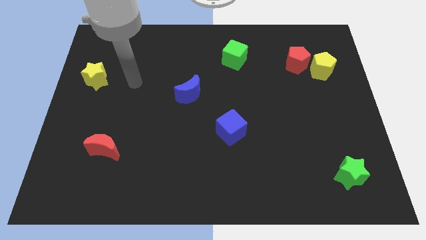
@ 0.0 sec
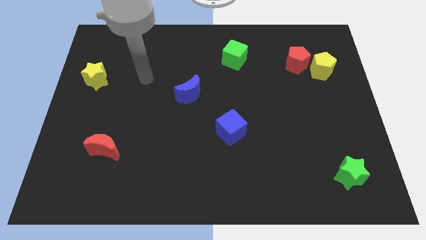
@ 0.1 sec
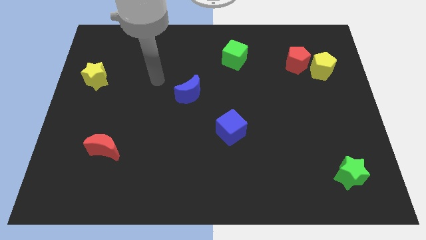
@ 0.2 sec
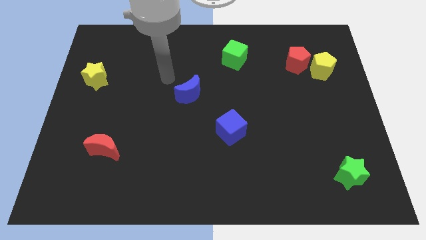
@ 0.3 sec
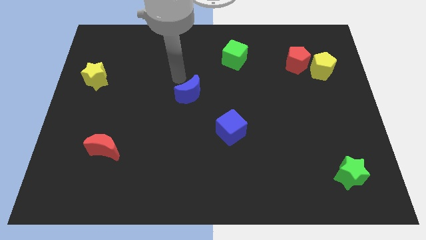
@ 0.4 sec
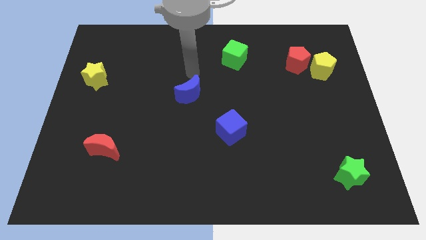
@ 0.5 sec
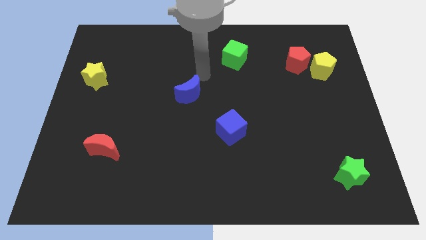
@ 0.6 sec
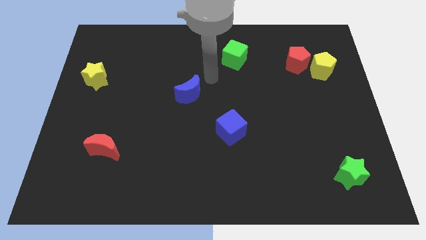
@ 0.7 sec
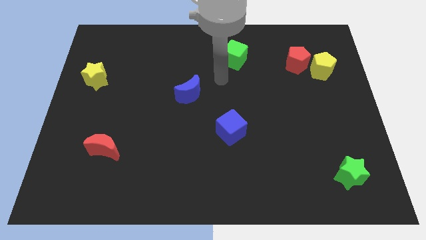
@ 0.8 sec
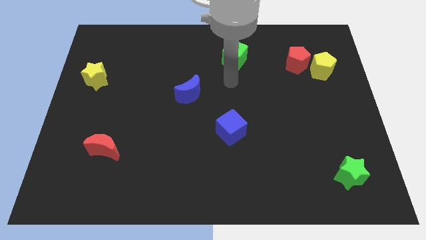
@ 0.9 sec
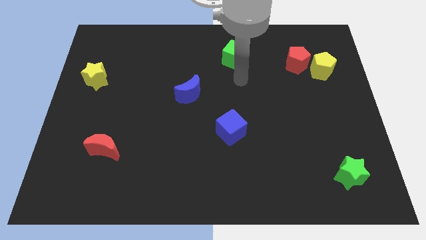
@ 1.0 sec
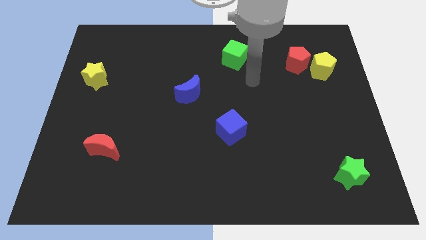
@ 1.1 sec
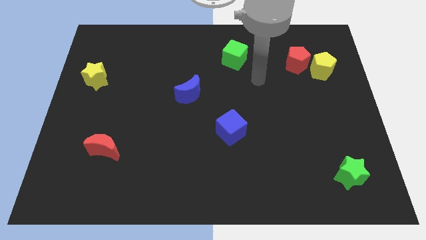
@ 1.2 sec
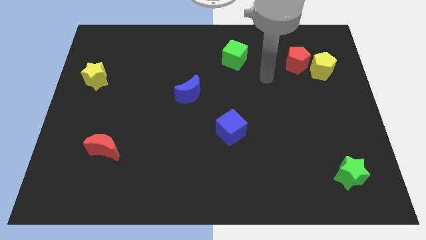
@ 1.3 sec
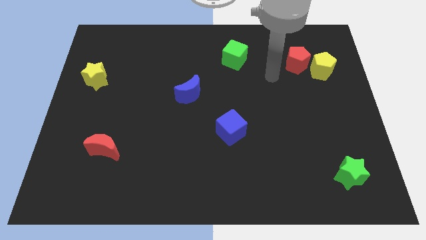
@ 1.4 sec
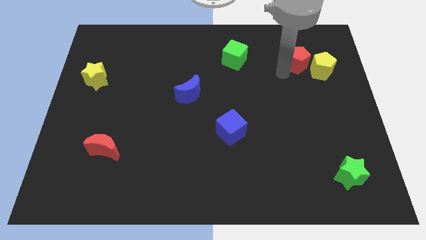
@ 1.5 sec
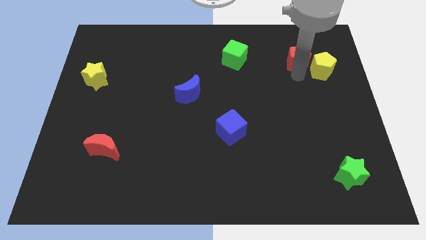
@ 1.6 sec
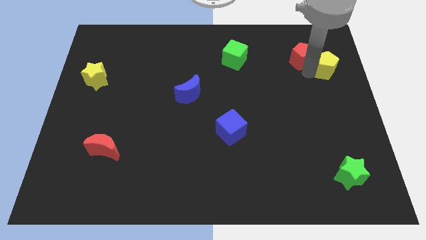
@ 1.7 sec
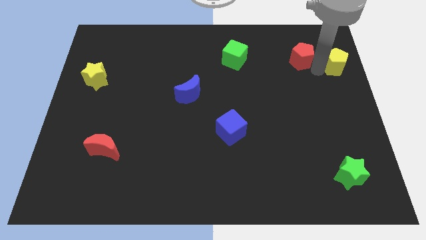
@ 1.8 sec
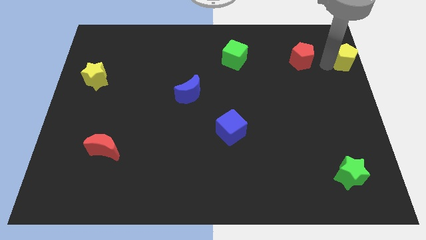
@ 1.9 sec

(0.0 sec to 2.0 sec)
pull the red pentagon apart from the yellow pentagon

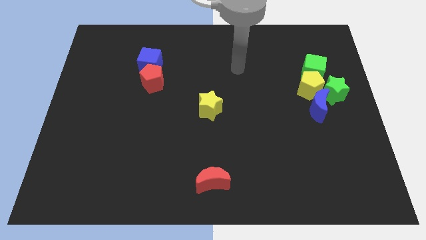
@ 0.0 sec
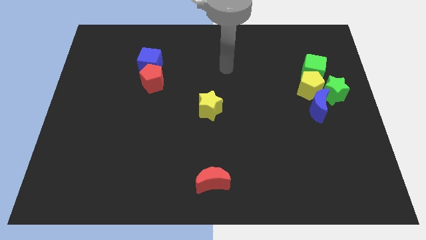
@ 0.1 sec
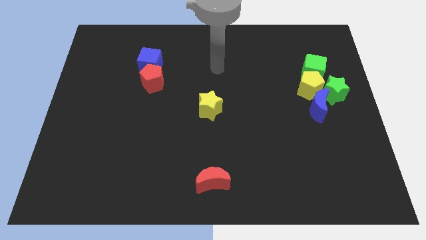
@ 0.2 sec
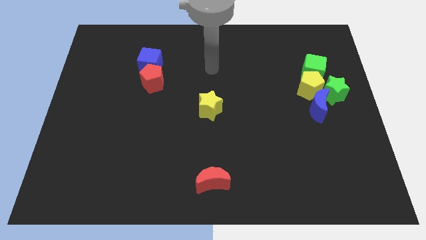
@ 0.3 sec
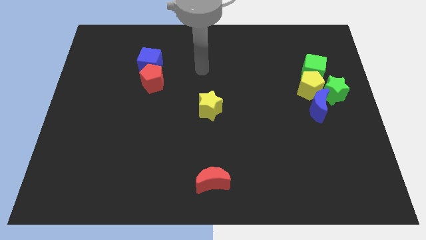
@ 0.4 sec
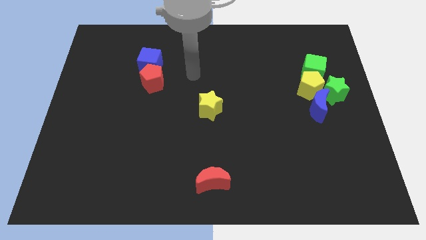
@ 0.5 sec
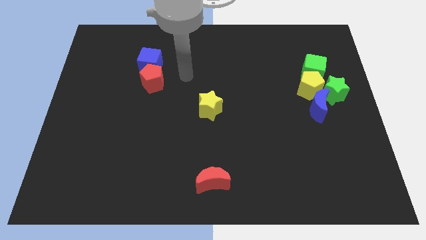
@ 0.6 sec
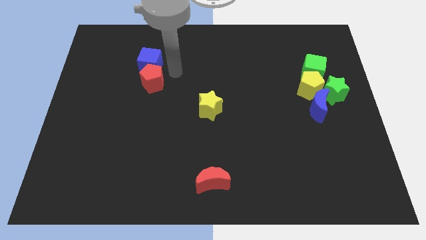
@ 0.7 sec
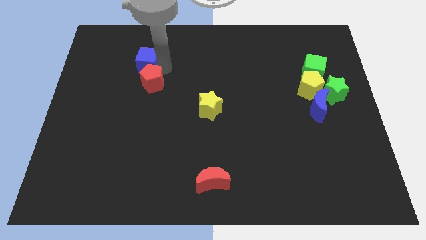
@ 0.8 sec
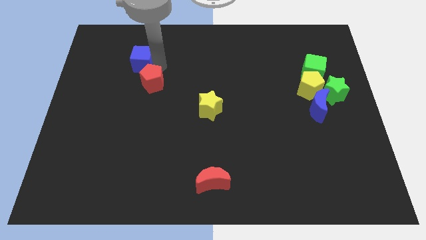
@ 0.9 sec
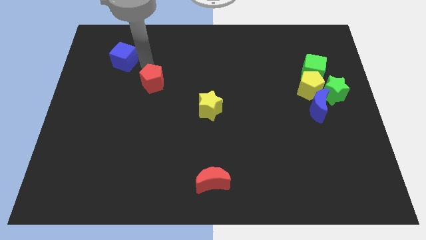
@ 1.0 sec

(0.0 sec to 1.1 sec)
pull the red pentagon apart from the blue cube

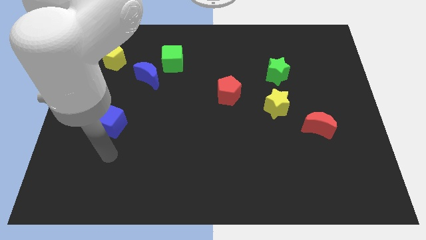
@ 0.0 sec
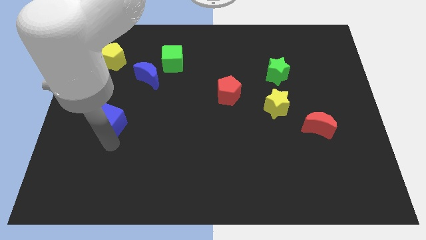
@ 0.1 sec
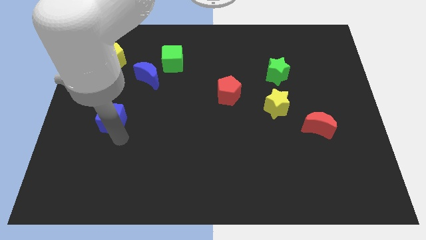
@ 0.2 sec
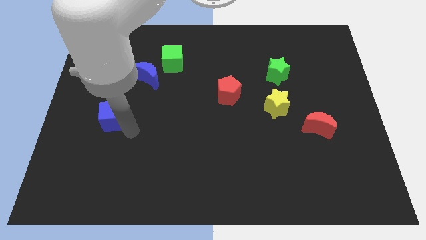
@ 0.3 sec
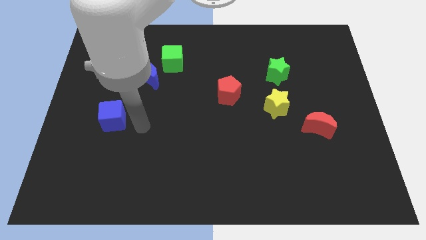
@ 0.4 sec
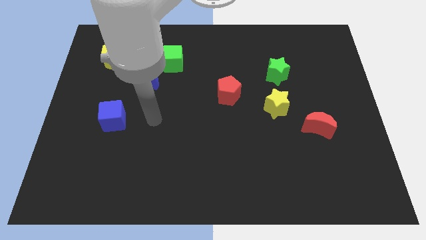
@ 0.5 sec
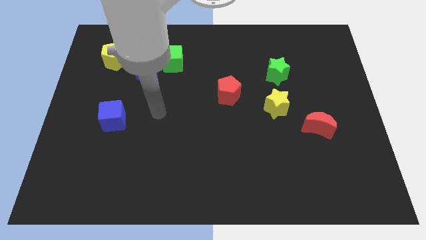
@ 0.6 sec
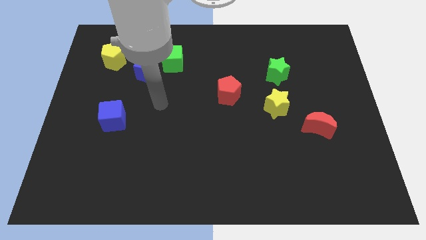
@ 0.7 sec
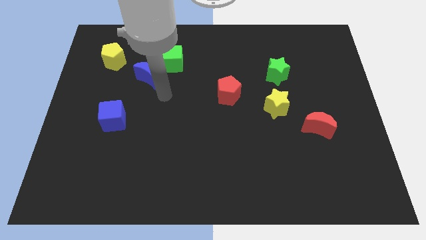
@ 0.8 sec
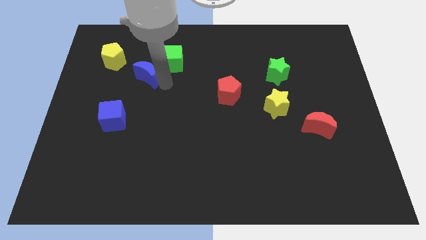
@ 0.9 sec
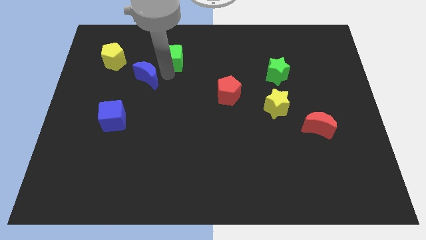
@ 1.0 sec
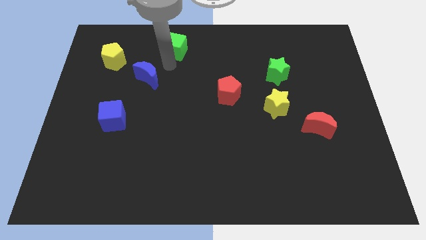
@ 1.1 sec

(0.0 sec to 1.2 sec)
pull the blue moon apart from the green cube

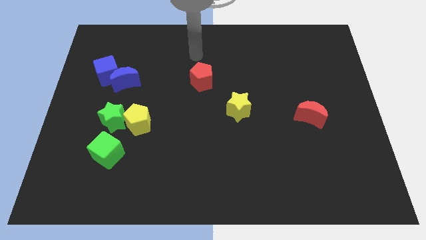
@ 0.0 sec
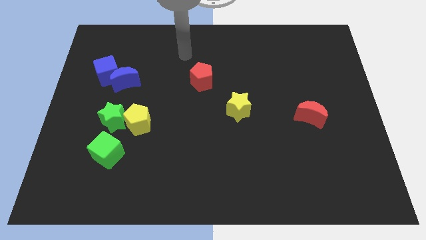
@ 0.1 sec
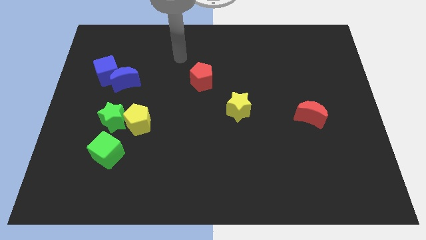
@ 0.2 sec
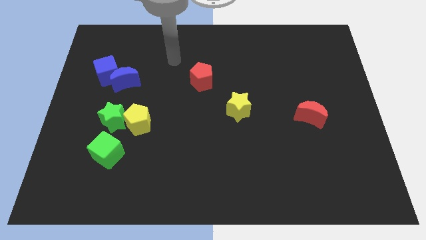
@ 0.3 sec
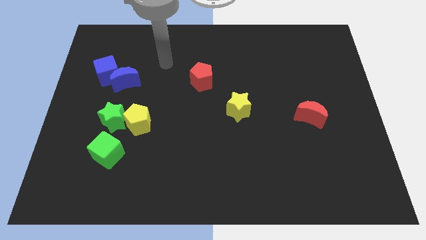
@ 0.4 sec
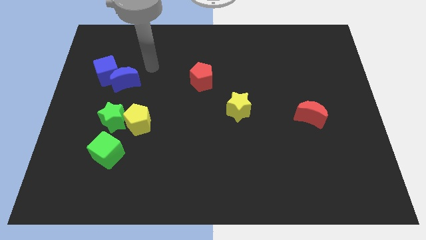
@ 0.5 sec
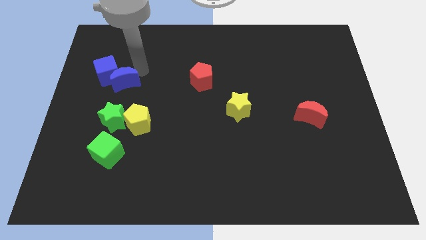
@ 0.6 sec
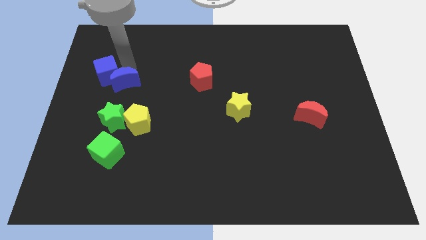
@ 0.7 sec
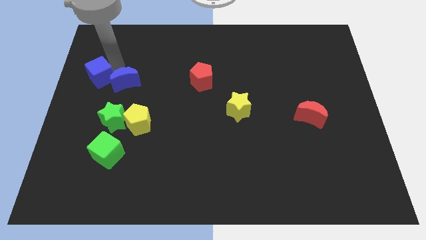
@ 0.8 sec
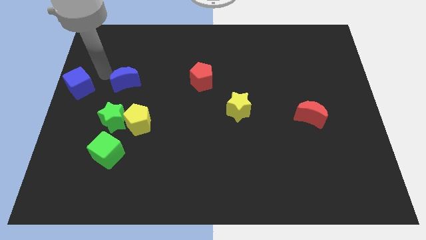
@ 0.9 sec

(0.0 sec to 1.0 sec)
move the blue moon away from the blue cube

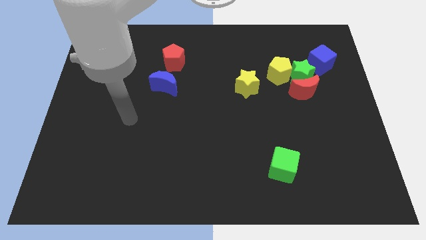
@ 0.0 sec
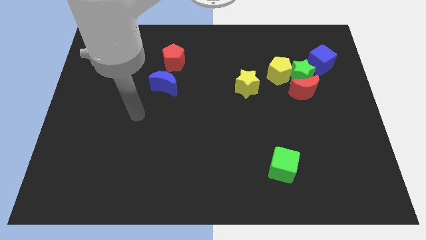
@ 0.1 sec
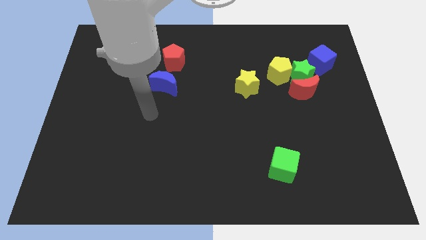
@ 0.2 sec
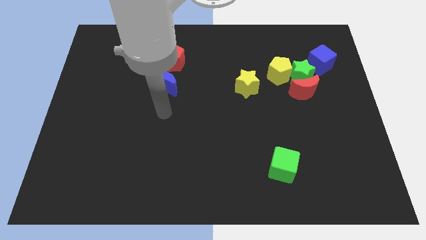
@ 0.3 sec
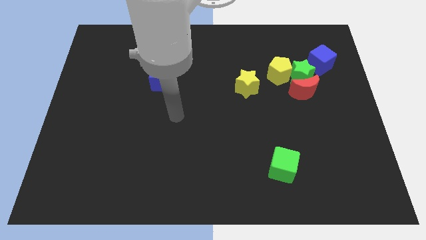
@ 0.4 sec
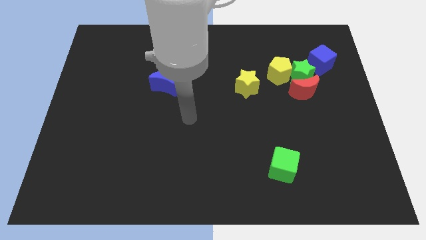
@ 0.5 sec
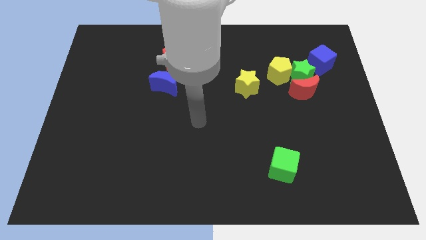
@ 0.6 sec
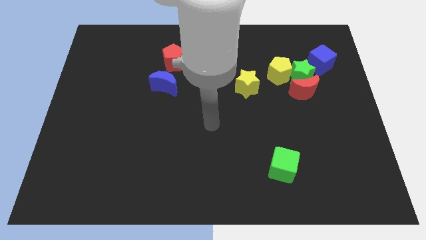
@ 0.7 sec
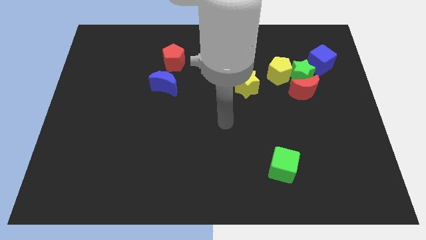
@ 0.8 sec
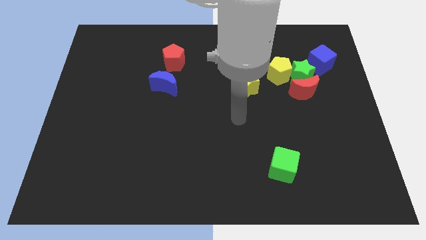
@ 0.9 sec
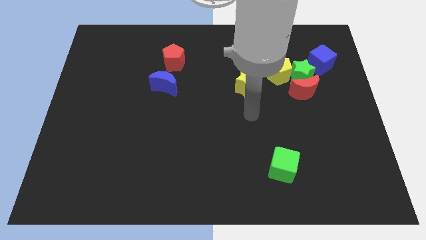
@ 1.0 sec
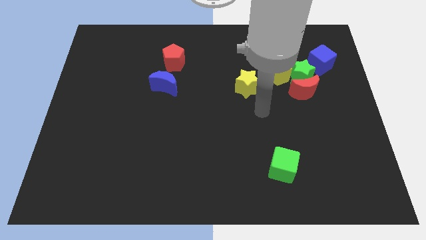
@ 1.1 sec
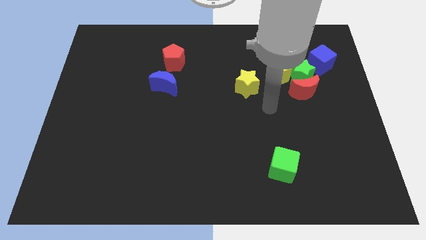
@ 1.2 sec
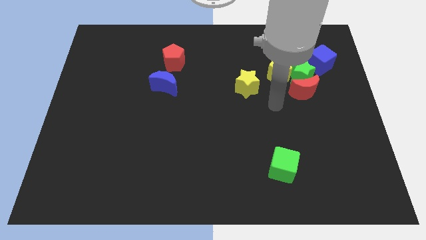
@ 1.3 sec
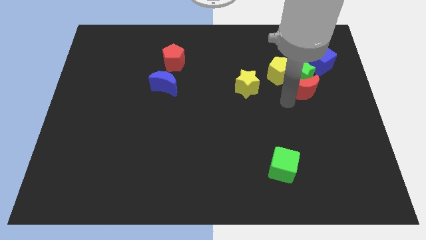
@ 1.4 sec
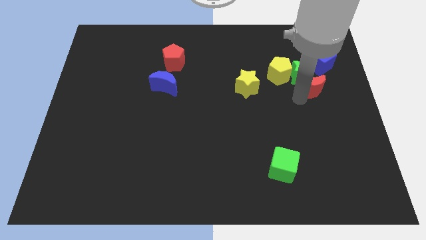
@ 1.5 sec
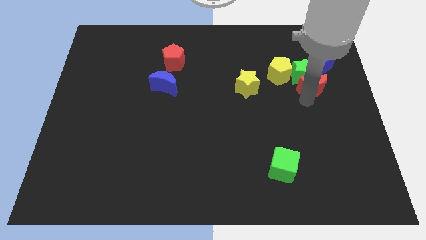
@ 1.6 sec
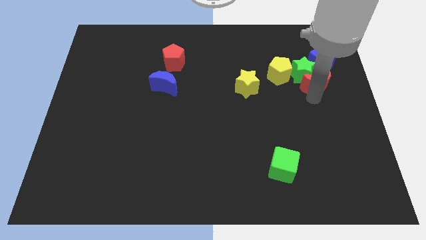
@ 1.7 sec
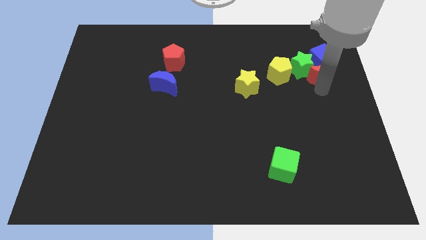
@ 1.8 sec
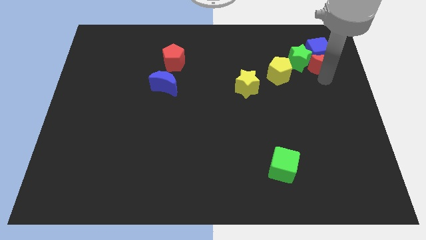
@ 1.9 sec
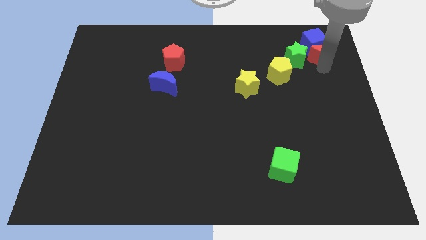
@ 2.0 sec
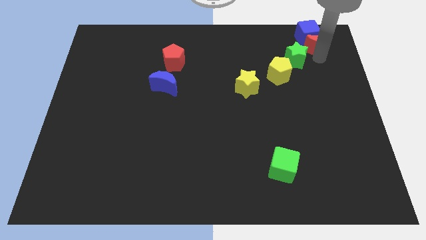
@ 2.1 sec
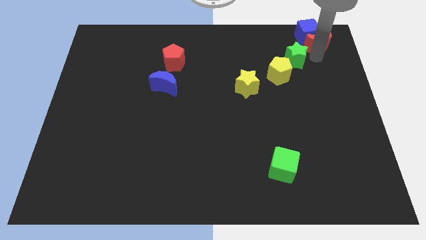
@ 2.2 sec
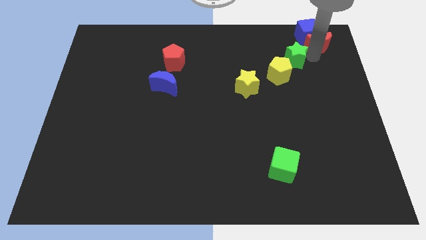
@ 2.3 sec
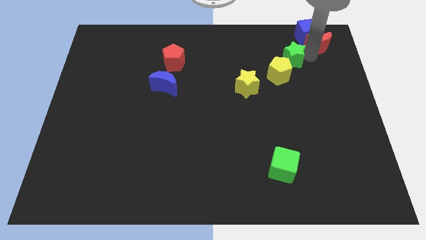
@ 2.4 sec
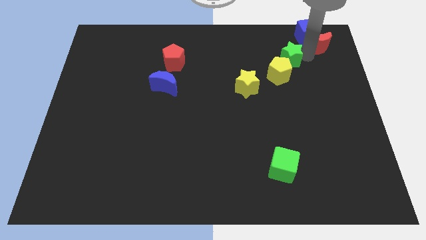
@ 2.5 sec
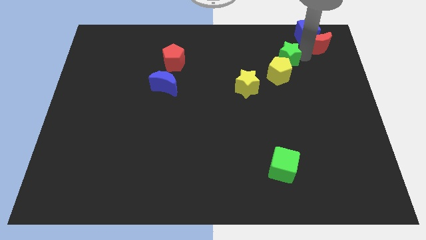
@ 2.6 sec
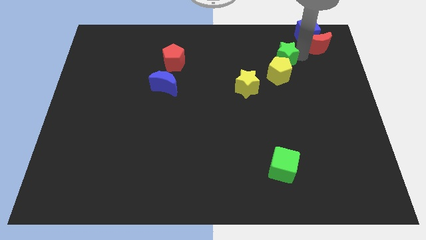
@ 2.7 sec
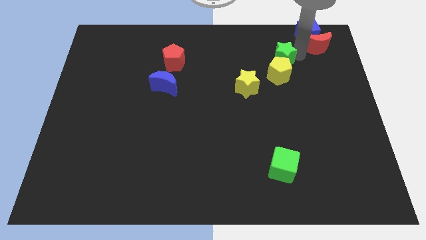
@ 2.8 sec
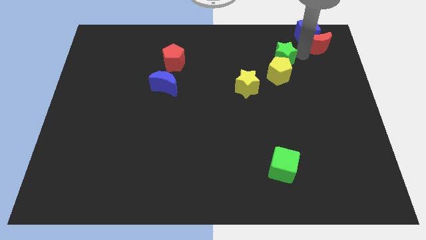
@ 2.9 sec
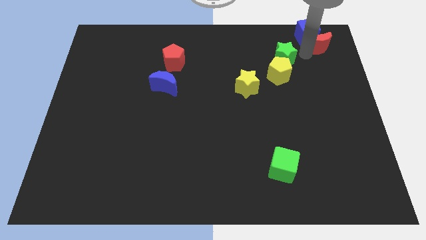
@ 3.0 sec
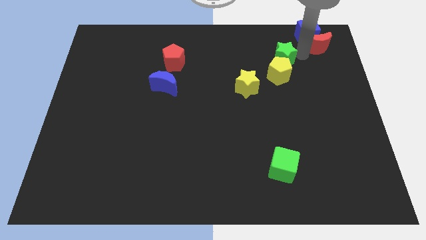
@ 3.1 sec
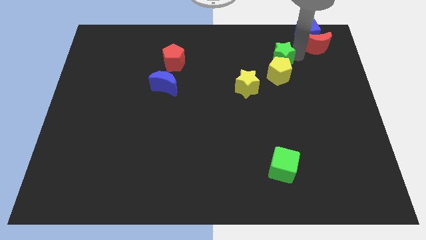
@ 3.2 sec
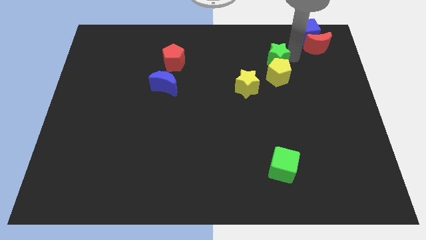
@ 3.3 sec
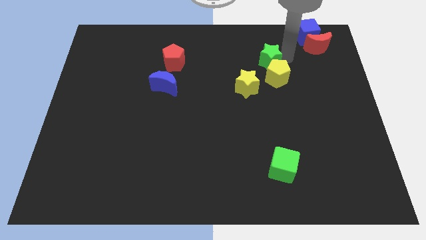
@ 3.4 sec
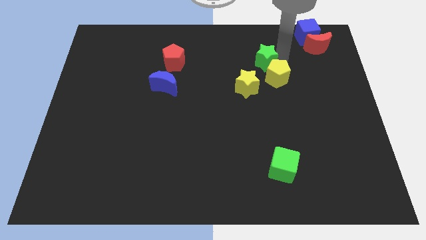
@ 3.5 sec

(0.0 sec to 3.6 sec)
separate the green star from the red moon, yellow pentagon, and blue cube

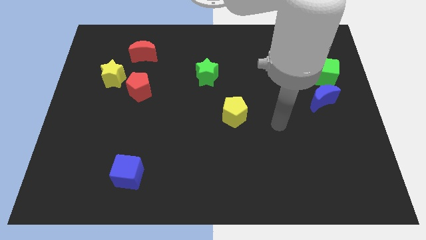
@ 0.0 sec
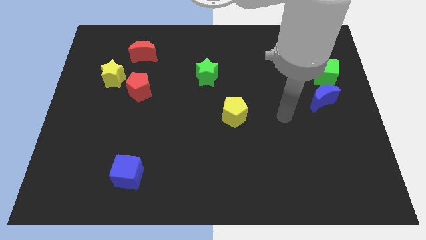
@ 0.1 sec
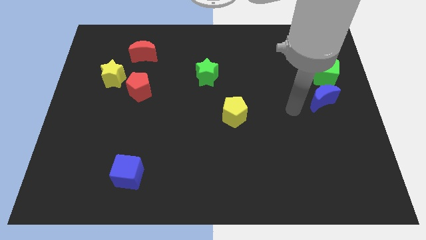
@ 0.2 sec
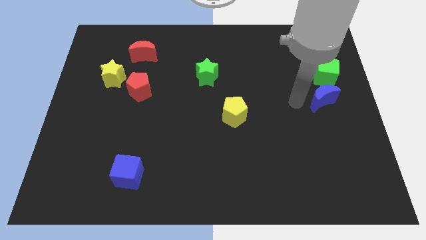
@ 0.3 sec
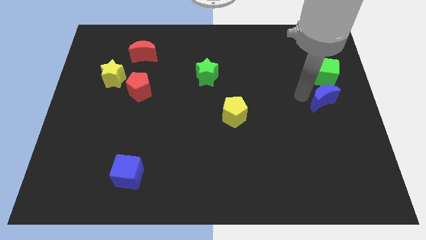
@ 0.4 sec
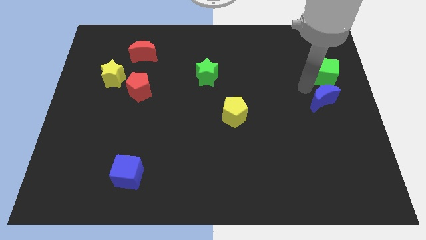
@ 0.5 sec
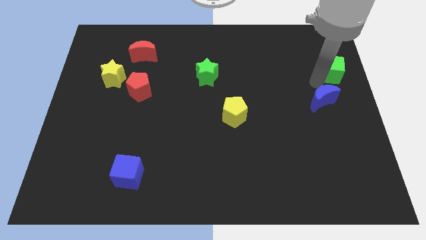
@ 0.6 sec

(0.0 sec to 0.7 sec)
separate the blue moon from the green cube
